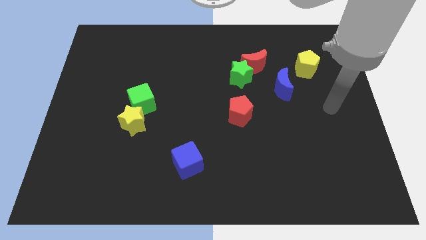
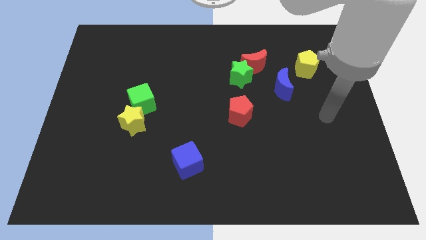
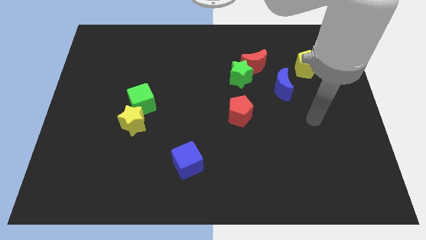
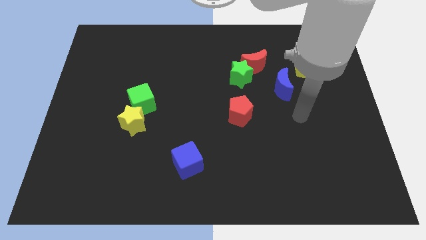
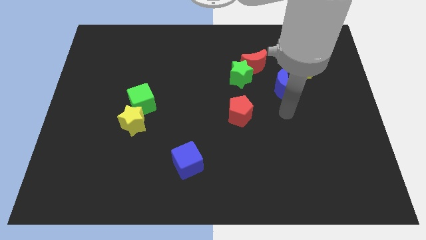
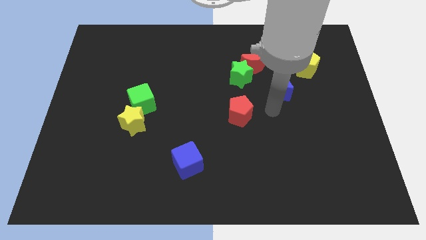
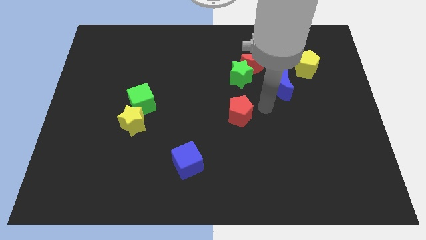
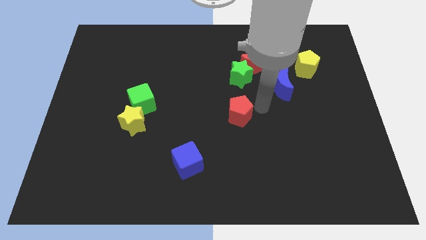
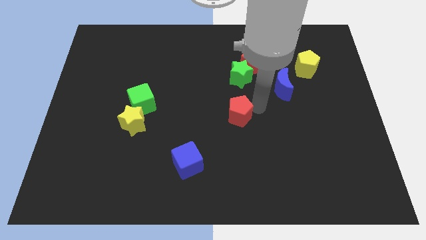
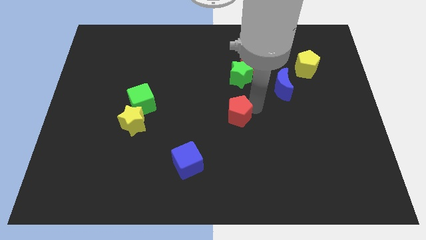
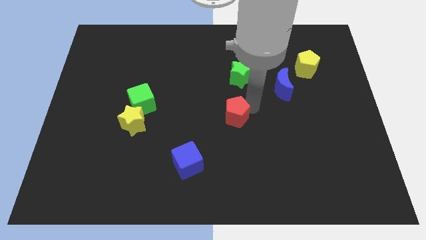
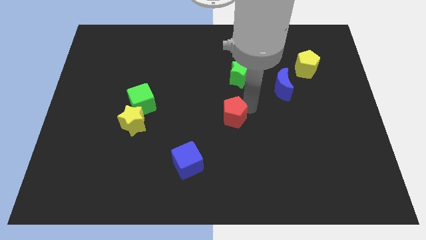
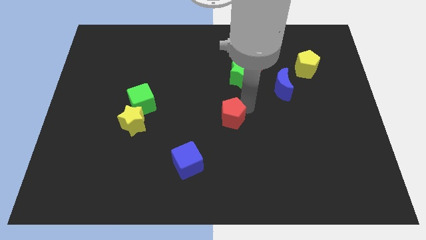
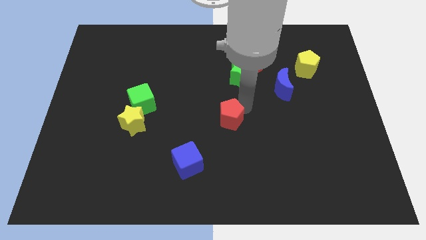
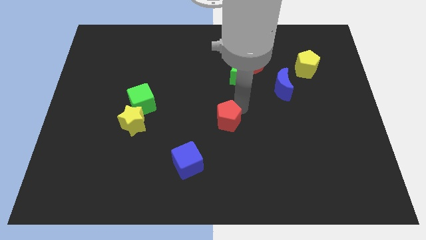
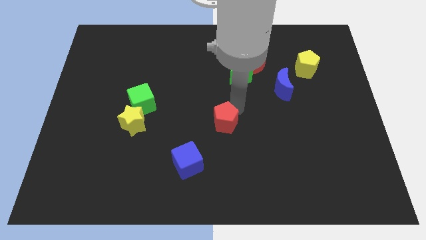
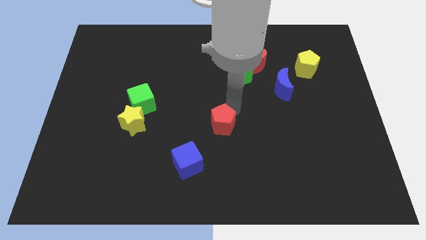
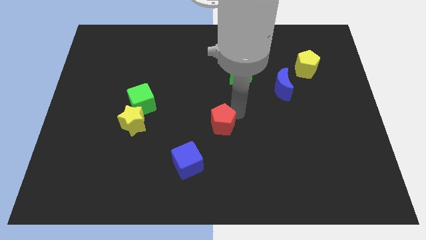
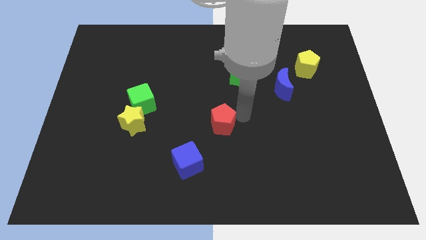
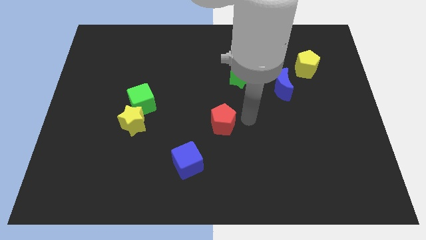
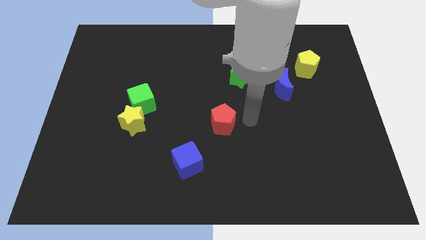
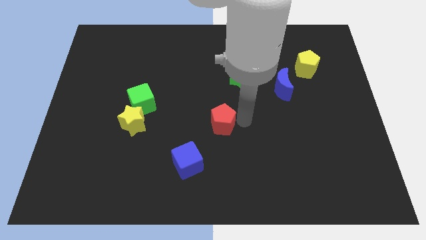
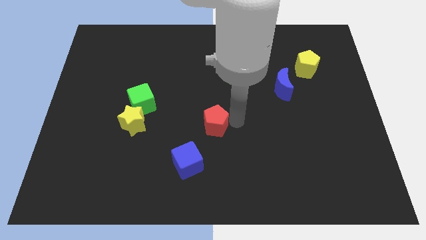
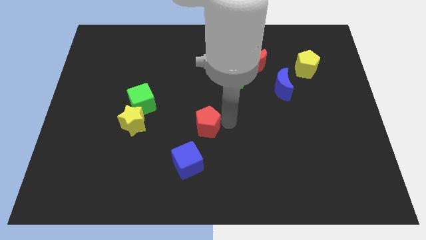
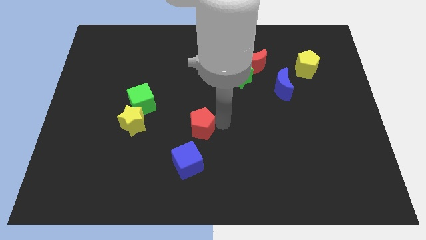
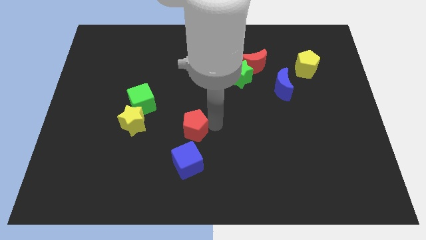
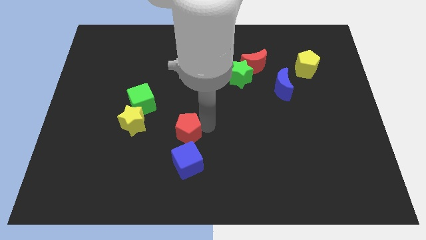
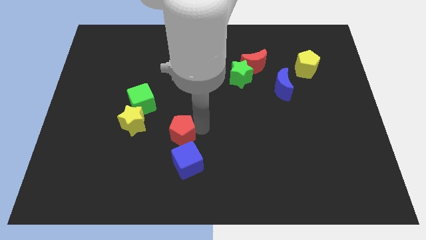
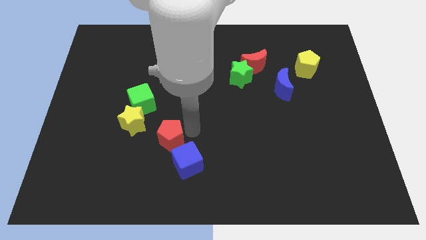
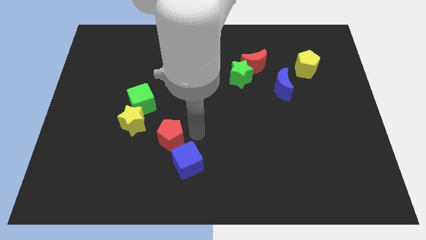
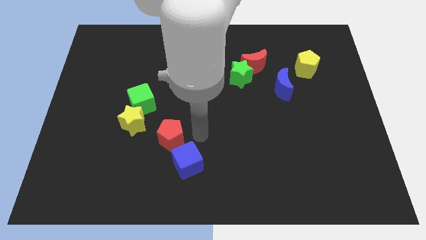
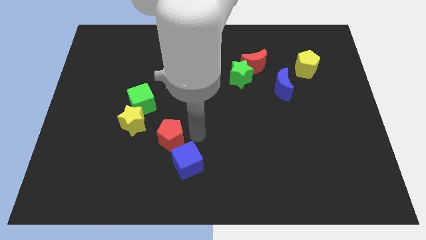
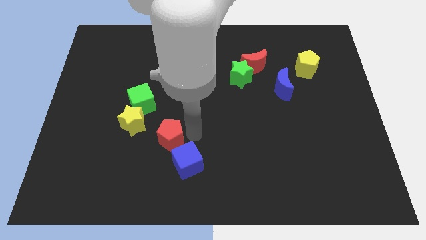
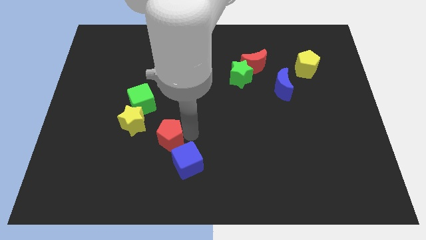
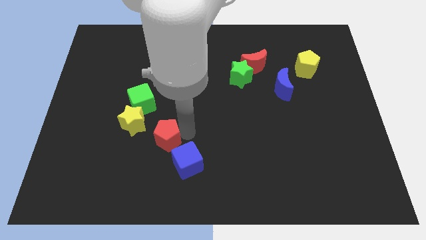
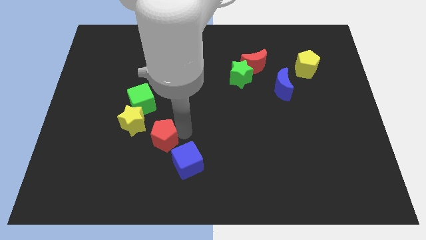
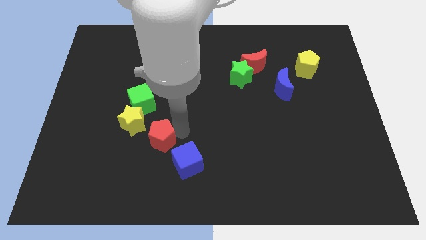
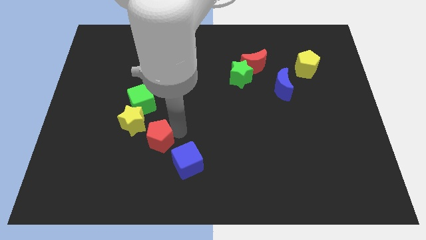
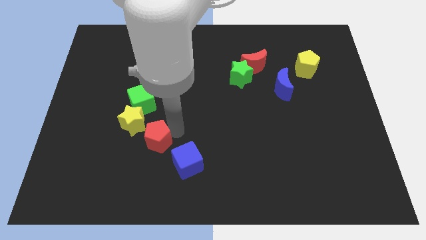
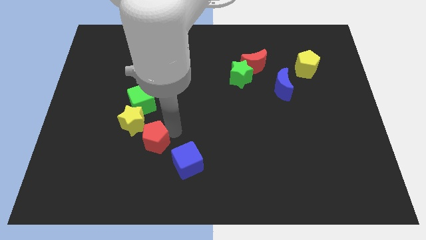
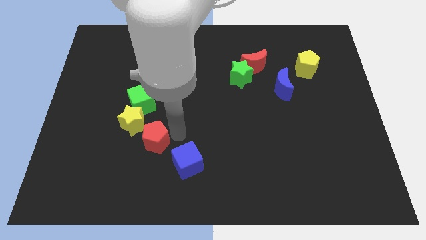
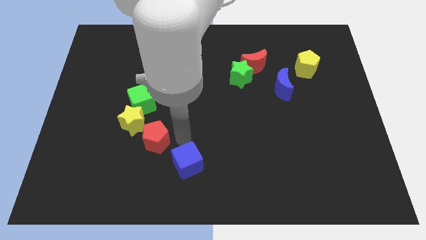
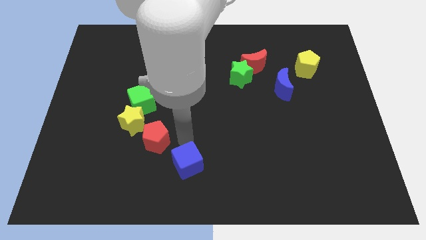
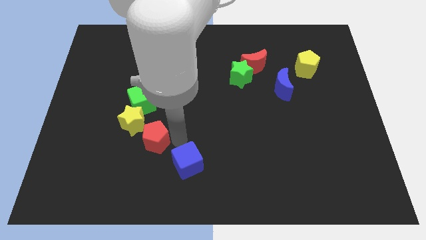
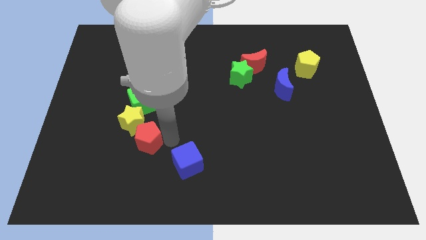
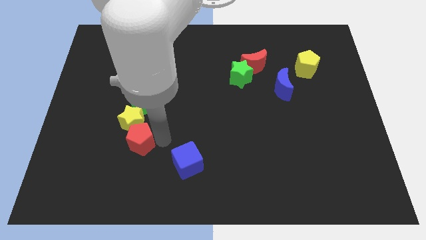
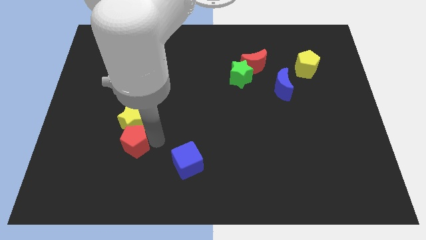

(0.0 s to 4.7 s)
slide the red pentagon left

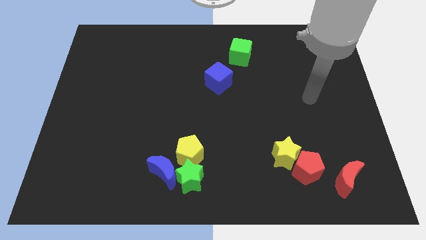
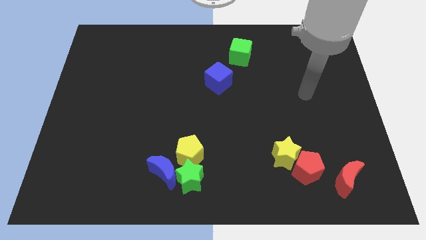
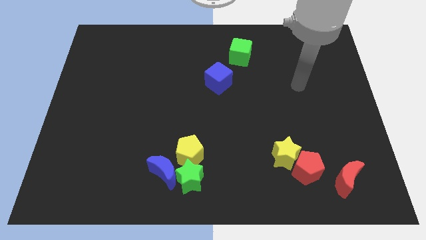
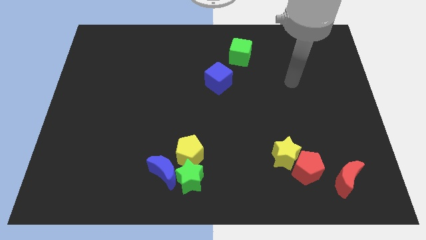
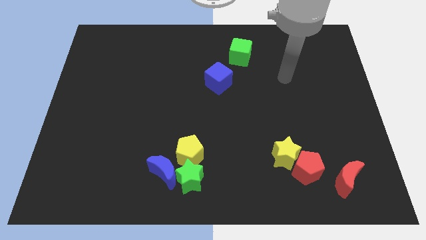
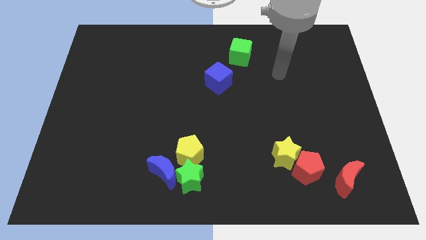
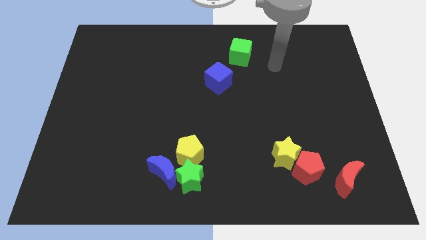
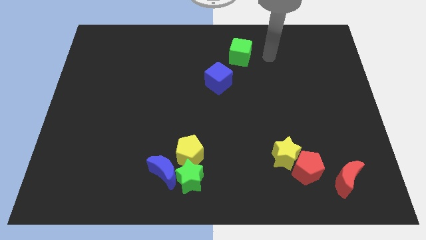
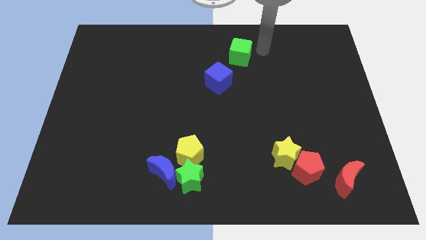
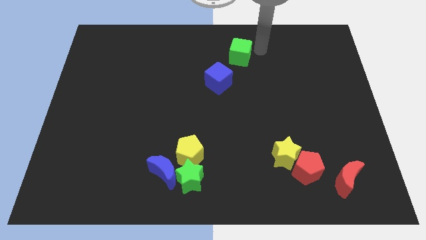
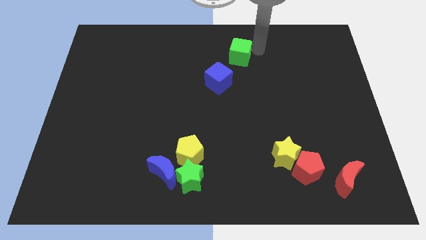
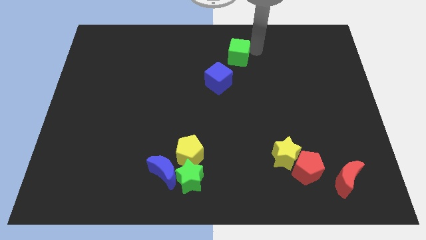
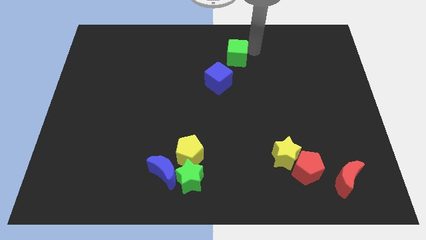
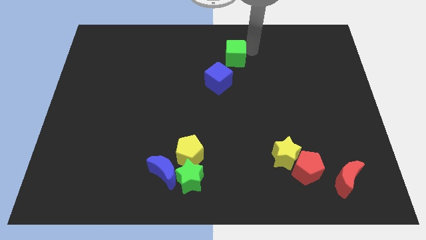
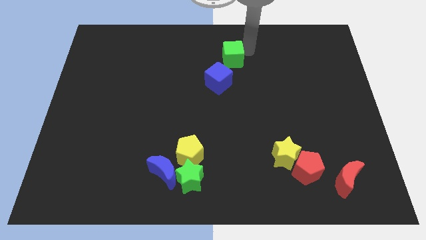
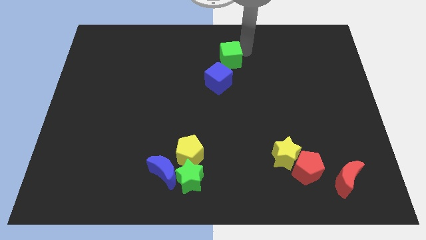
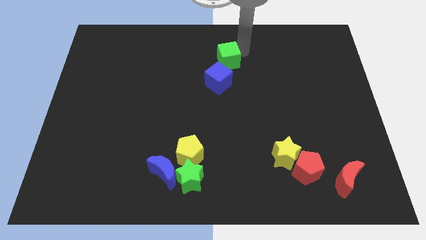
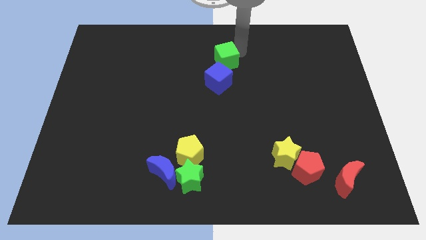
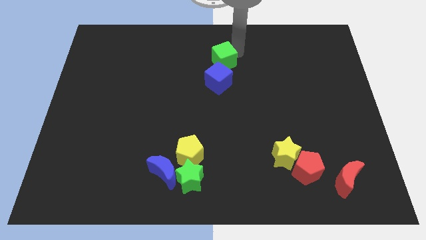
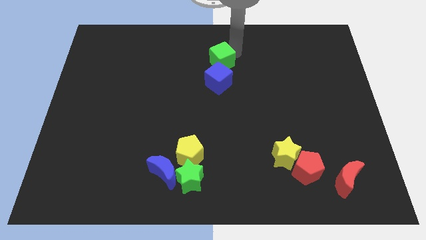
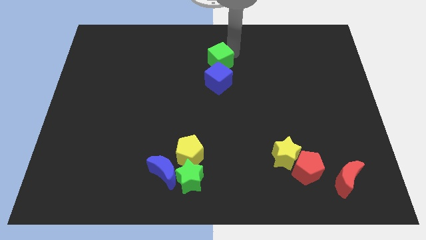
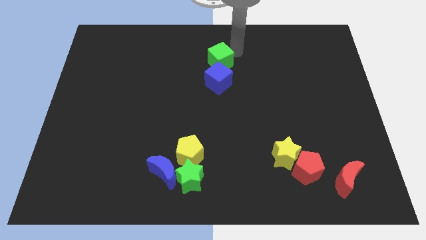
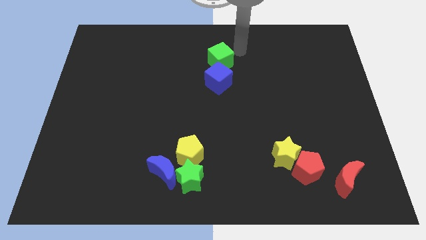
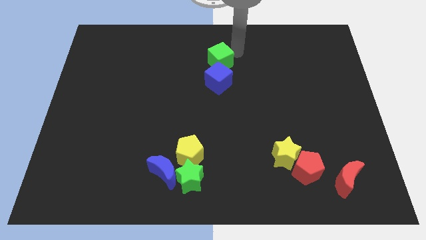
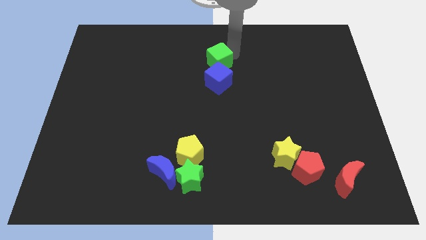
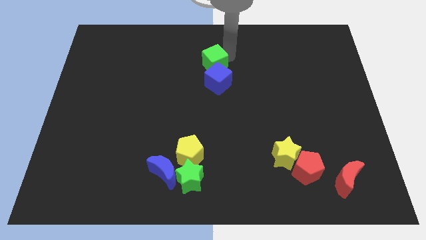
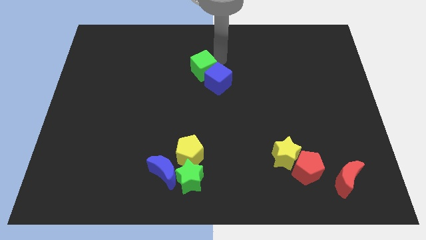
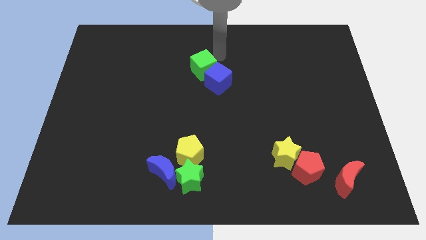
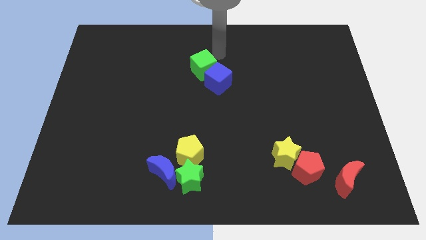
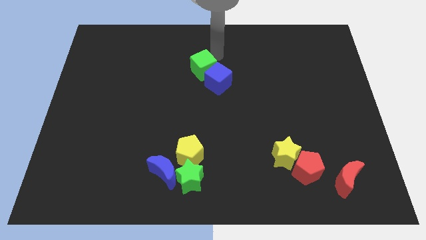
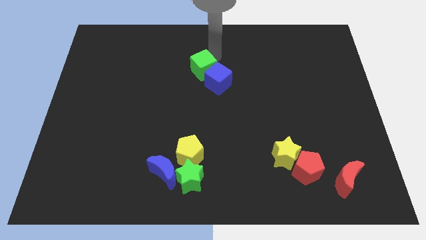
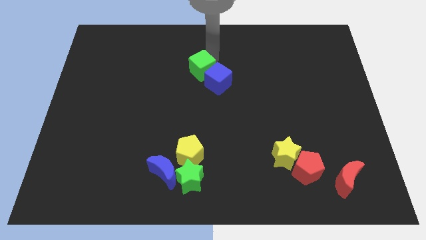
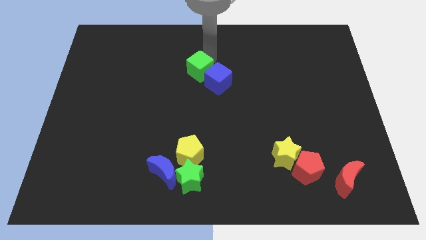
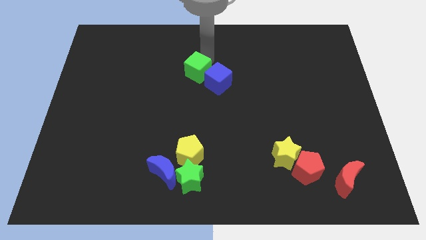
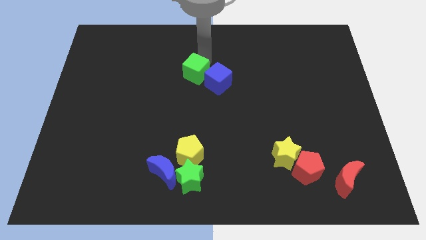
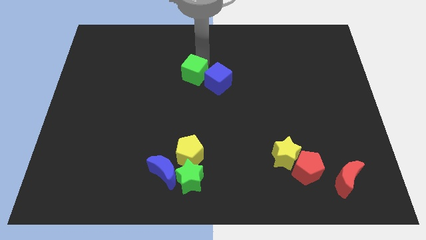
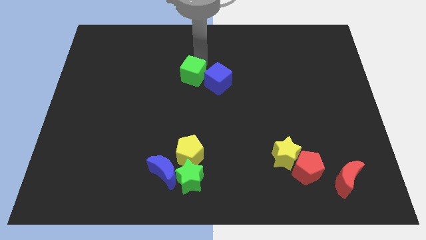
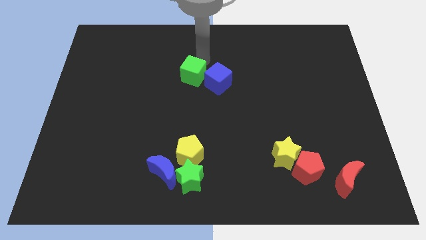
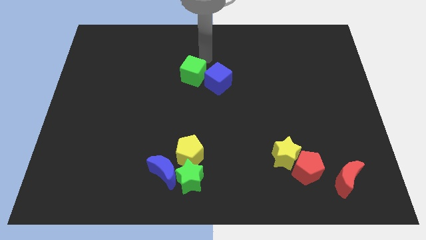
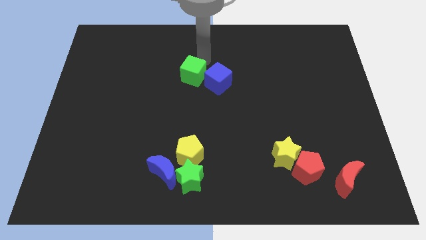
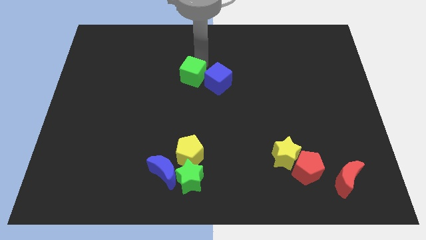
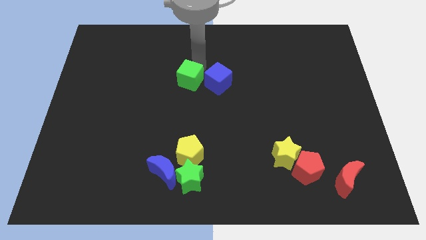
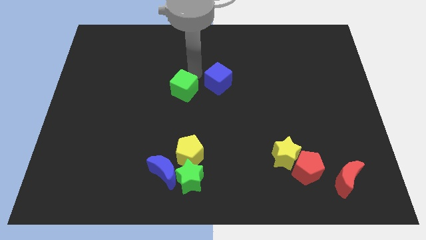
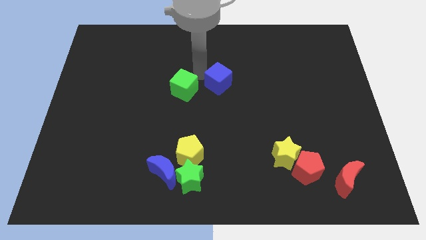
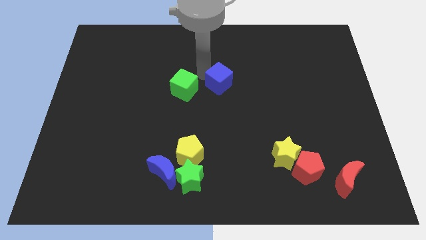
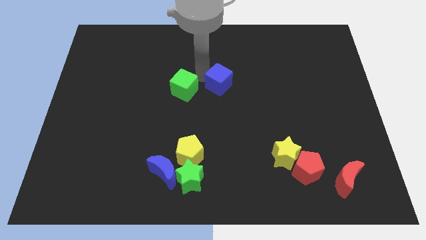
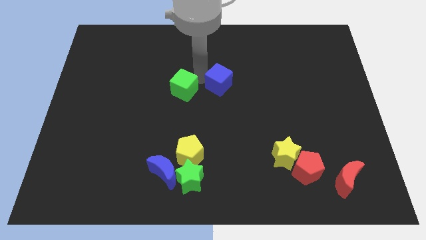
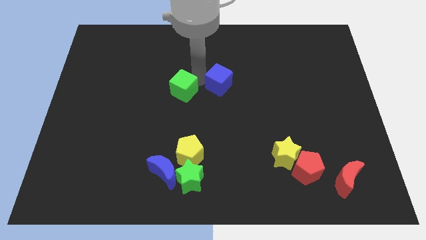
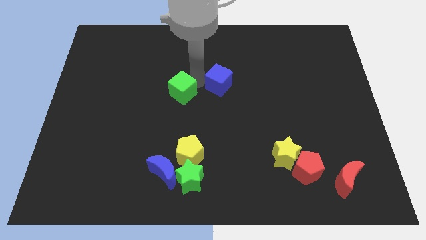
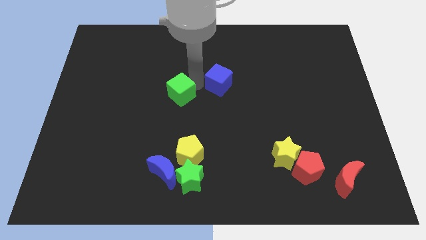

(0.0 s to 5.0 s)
move the green cube down and then left
